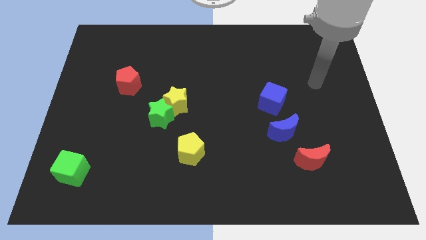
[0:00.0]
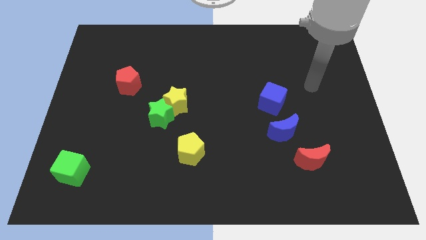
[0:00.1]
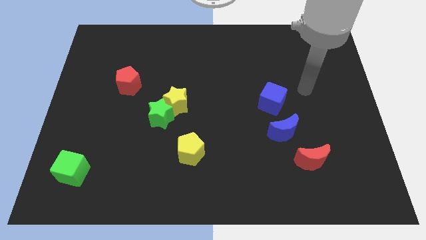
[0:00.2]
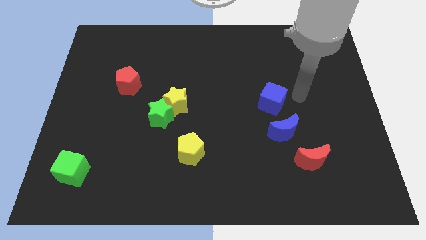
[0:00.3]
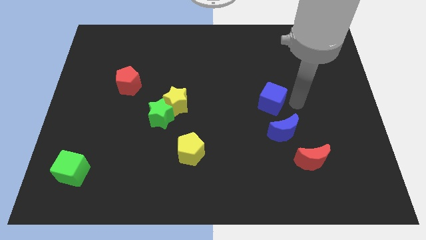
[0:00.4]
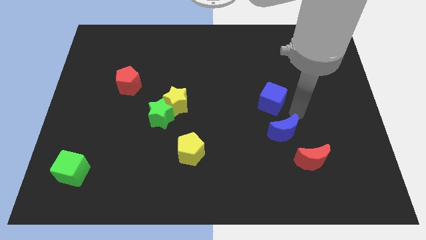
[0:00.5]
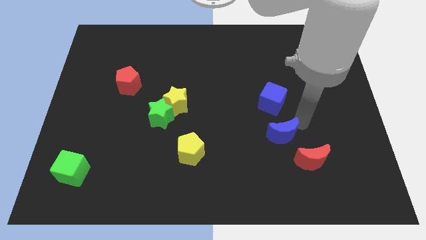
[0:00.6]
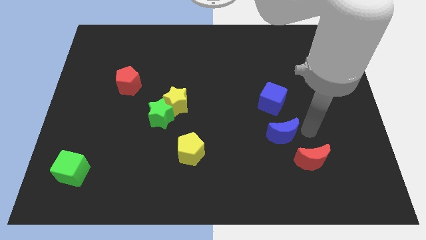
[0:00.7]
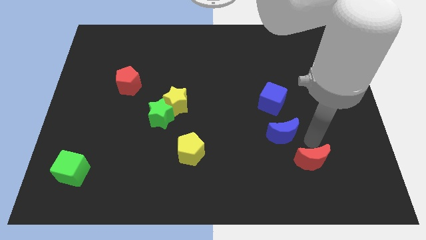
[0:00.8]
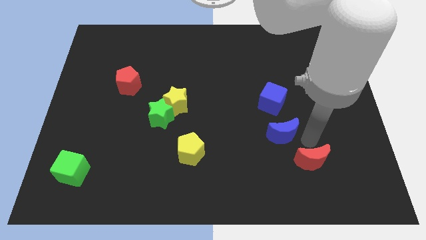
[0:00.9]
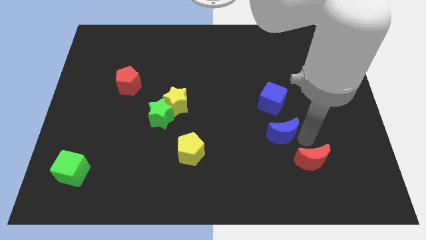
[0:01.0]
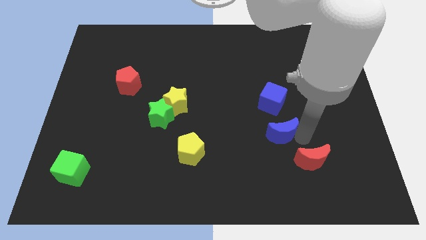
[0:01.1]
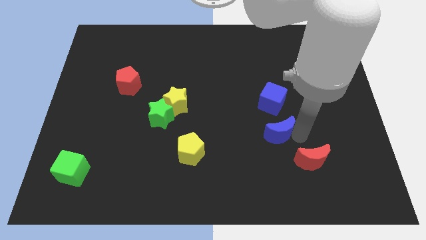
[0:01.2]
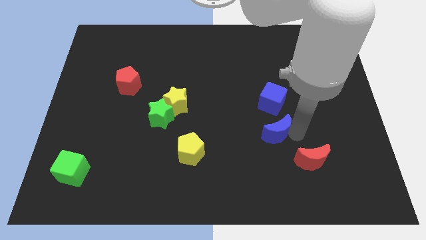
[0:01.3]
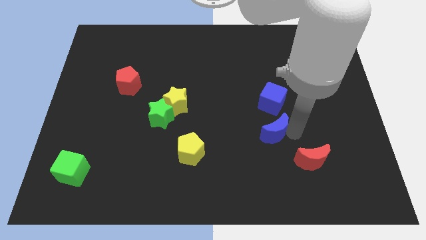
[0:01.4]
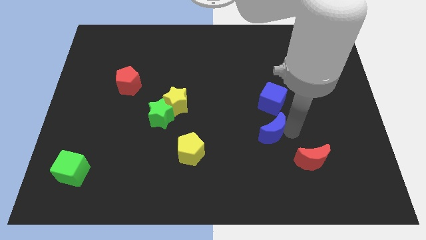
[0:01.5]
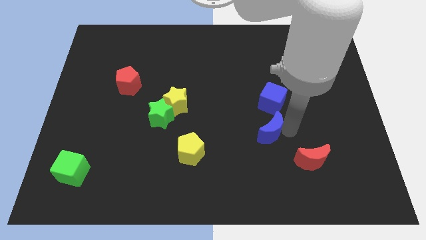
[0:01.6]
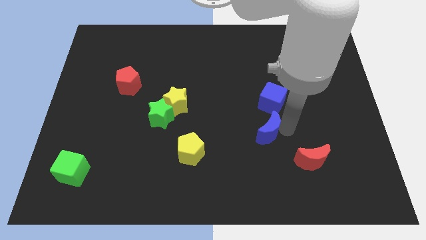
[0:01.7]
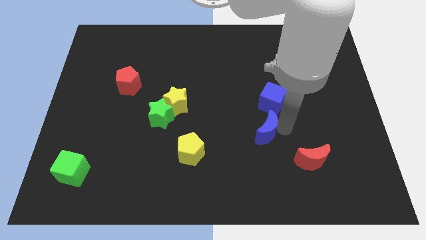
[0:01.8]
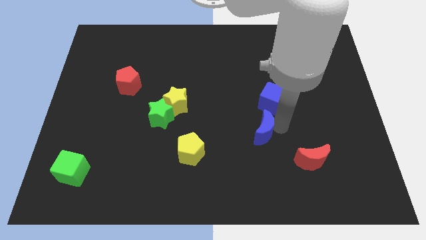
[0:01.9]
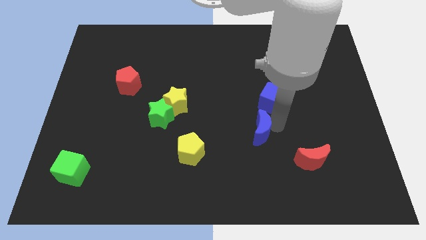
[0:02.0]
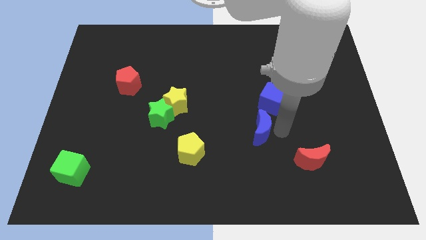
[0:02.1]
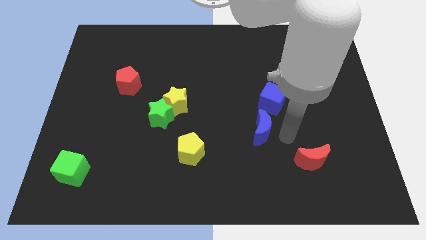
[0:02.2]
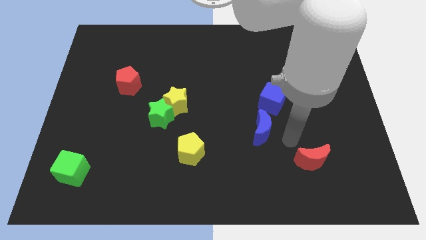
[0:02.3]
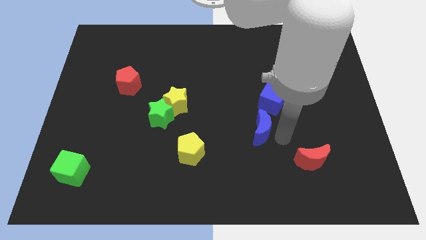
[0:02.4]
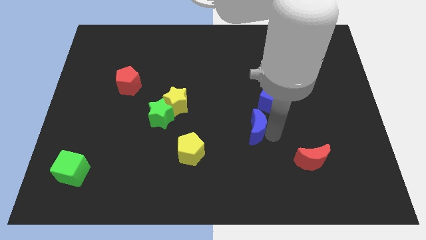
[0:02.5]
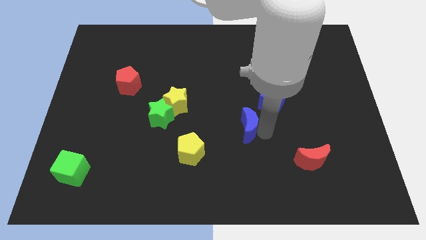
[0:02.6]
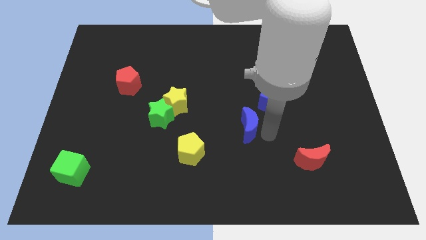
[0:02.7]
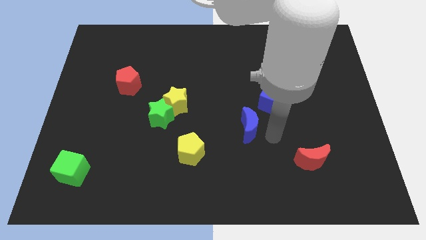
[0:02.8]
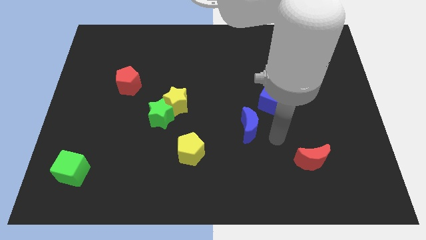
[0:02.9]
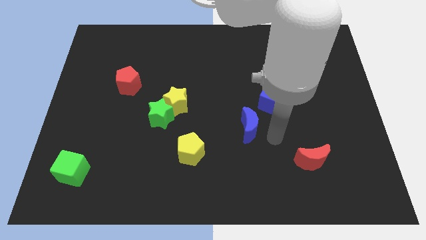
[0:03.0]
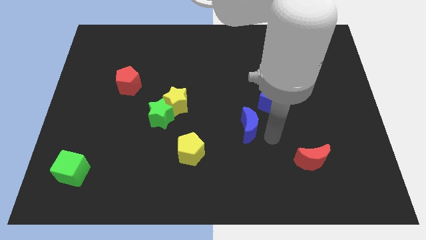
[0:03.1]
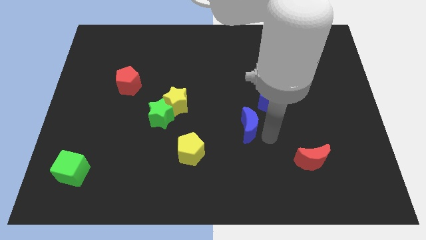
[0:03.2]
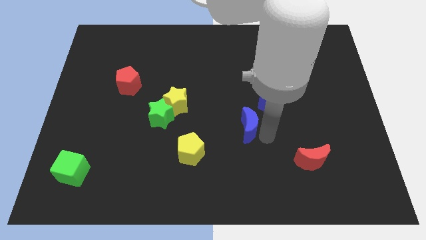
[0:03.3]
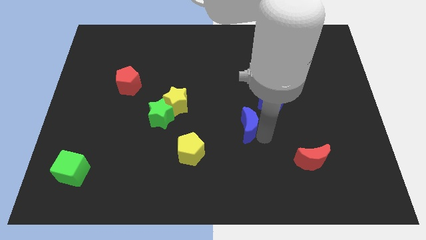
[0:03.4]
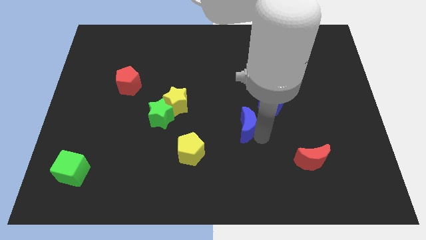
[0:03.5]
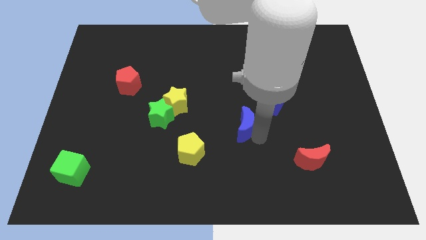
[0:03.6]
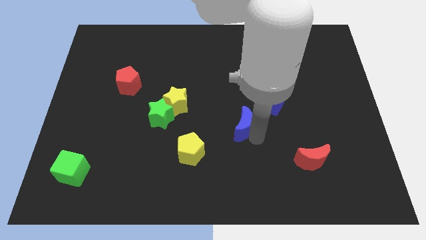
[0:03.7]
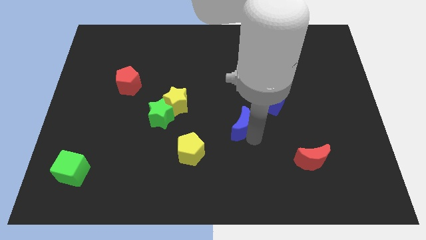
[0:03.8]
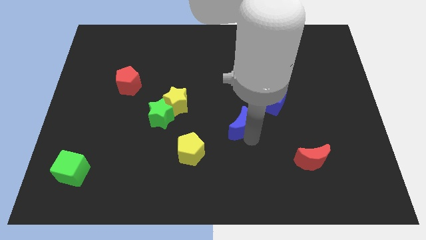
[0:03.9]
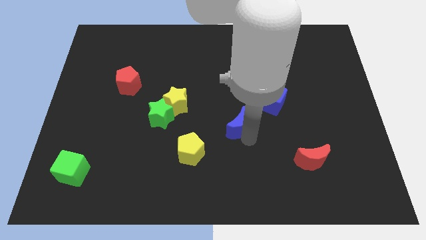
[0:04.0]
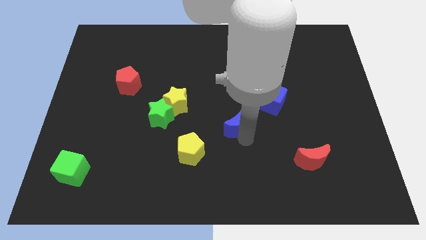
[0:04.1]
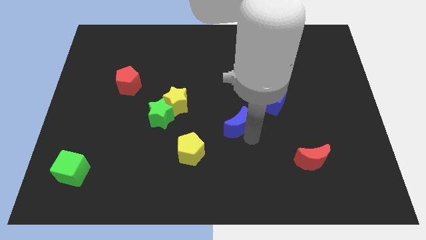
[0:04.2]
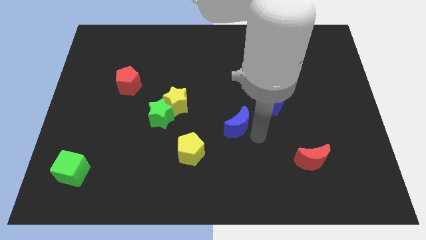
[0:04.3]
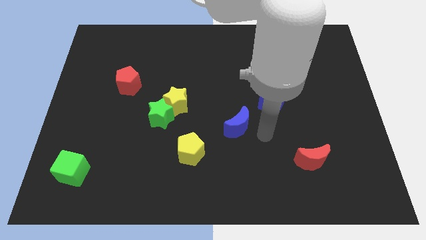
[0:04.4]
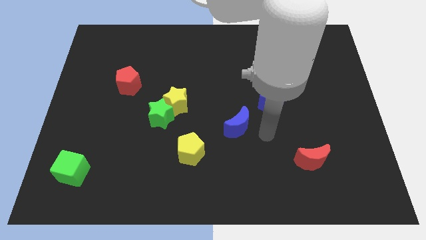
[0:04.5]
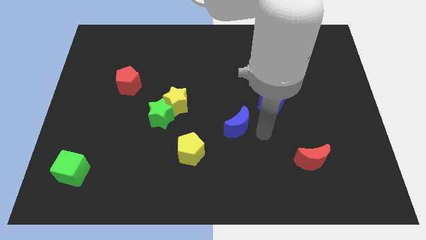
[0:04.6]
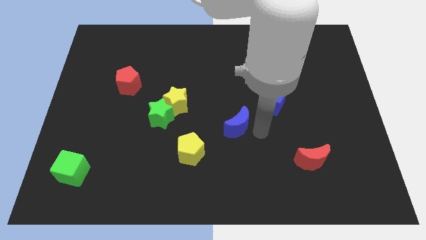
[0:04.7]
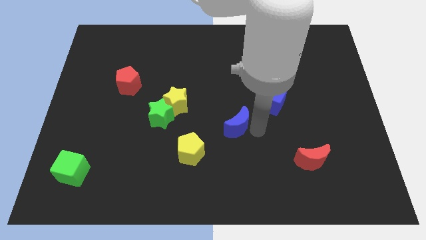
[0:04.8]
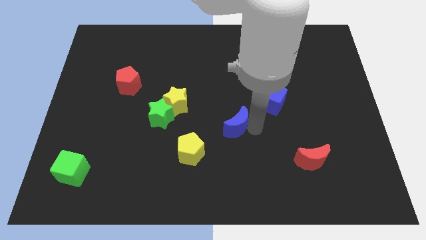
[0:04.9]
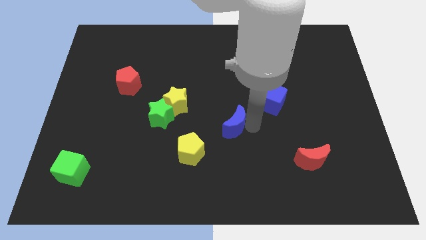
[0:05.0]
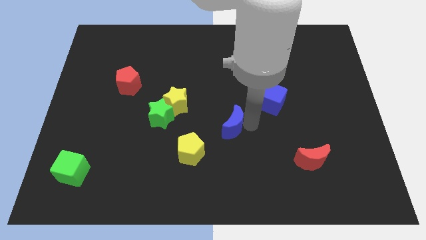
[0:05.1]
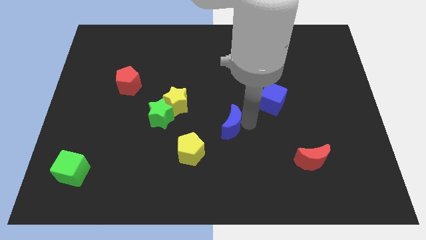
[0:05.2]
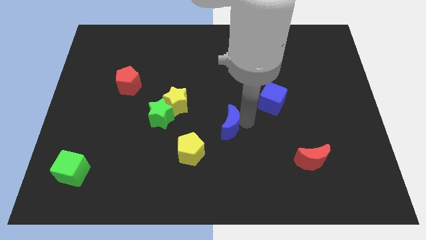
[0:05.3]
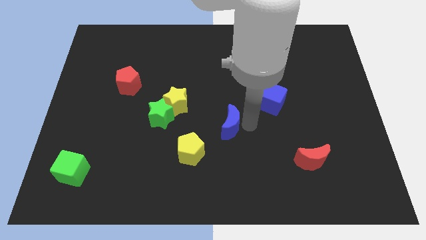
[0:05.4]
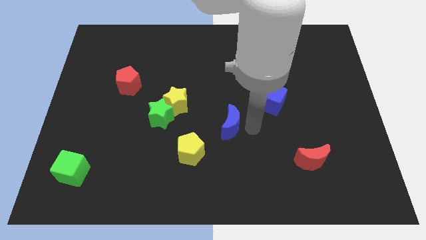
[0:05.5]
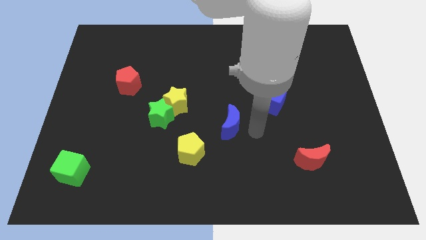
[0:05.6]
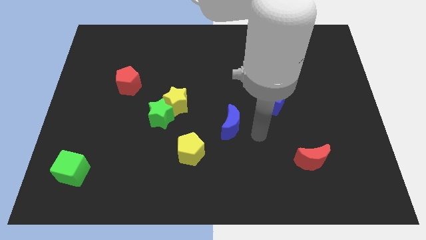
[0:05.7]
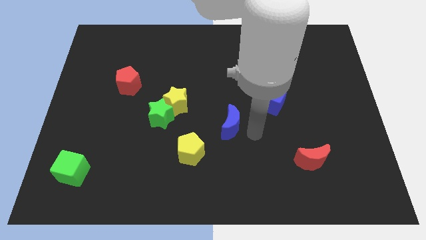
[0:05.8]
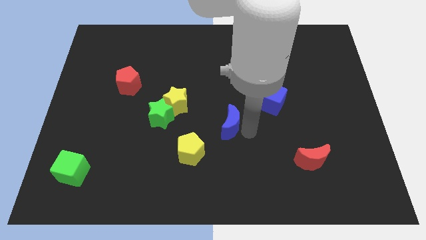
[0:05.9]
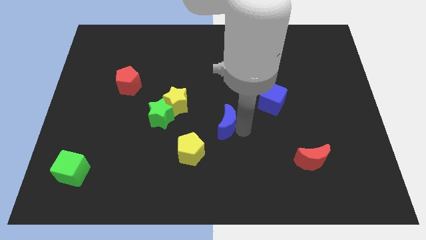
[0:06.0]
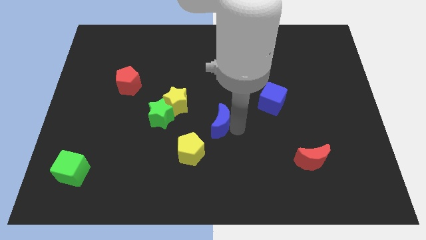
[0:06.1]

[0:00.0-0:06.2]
slide the blue moon to the bottom right of the yellow star

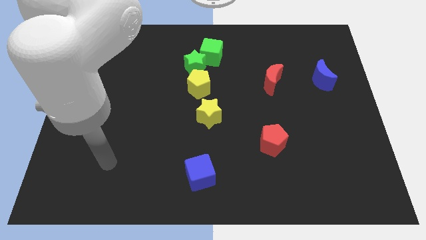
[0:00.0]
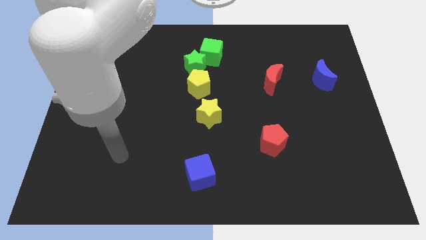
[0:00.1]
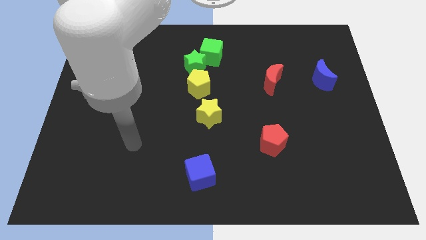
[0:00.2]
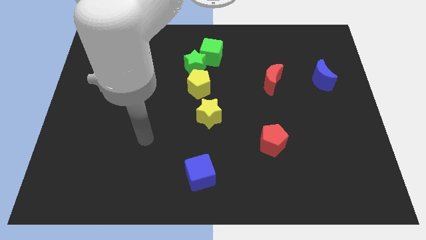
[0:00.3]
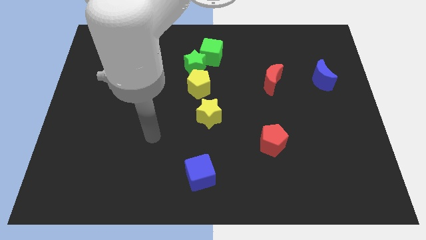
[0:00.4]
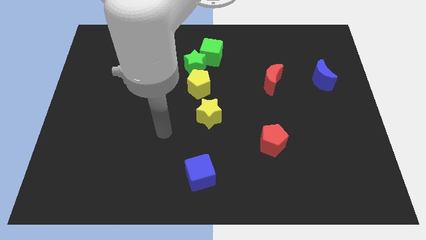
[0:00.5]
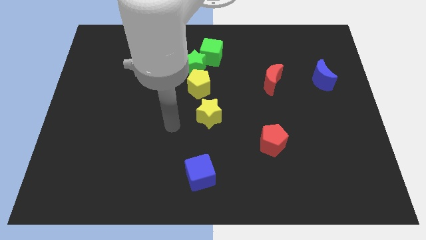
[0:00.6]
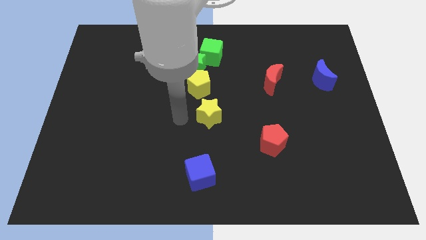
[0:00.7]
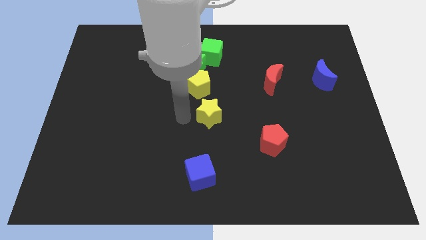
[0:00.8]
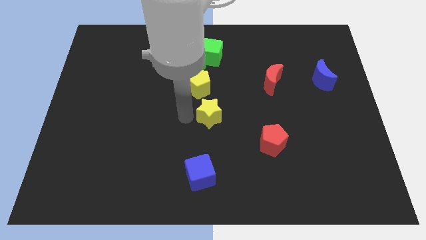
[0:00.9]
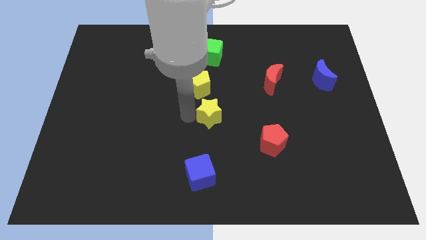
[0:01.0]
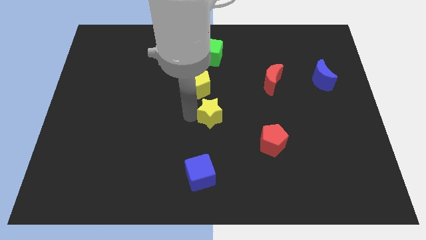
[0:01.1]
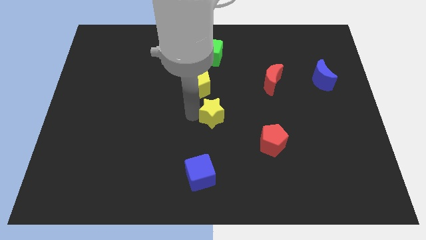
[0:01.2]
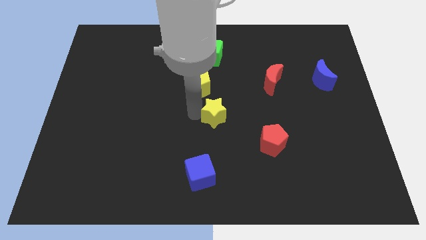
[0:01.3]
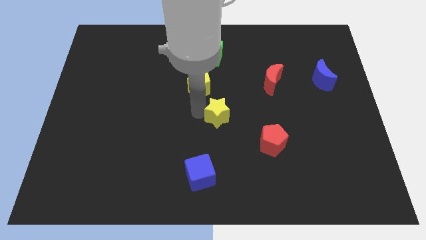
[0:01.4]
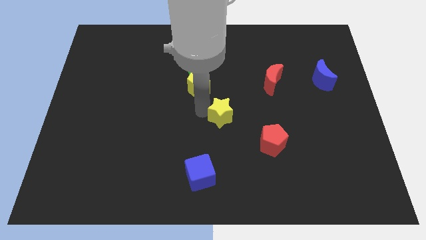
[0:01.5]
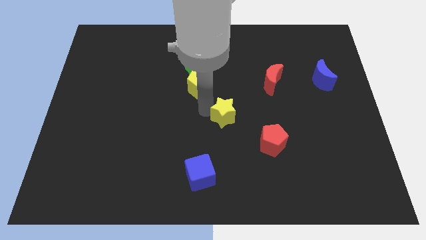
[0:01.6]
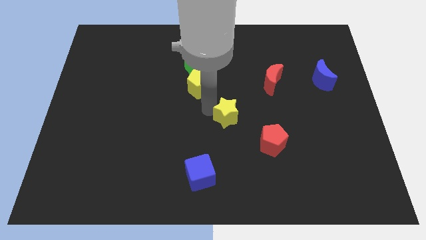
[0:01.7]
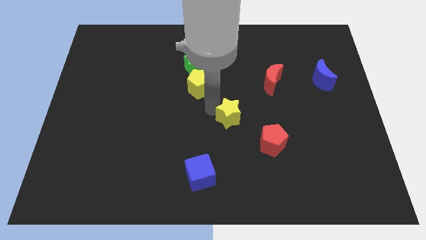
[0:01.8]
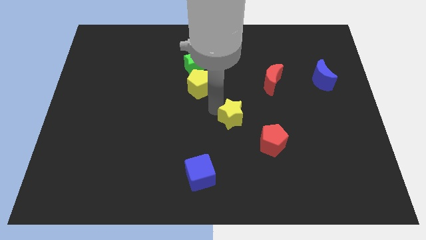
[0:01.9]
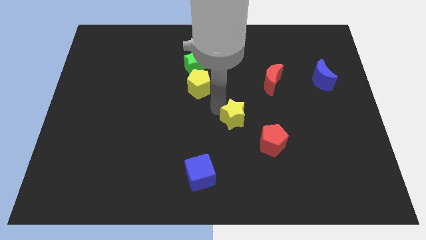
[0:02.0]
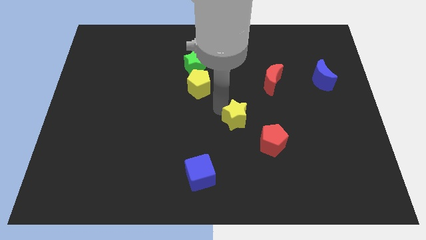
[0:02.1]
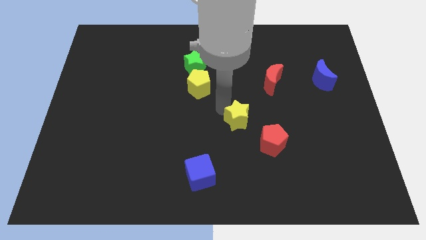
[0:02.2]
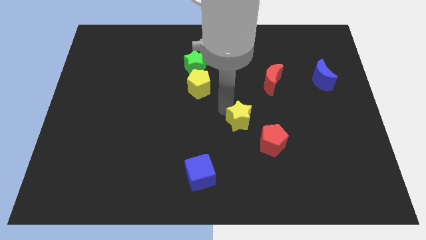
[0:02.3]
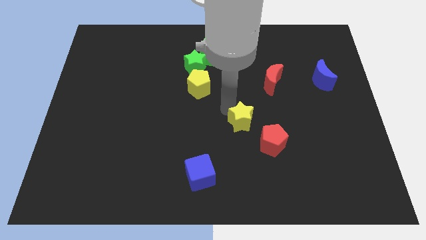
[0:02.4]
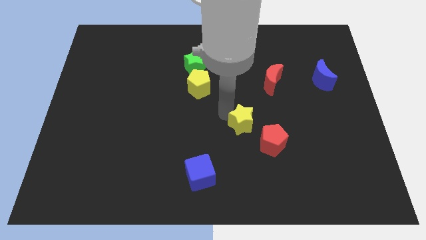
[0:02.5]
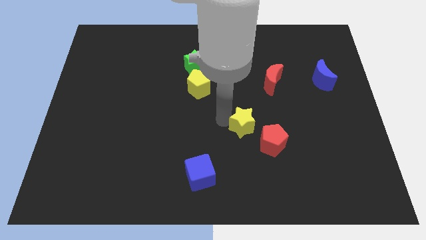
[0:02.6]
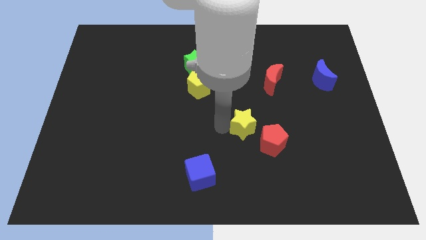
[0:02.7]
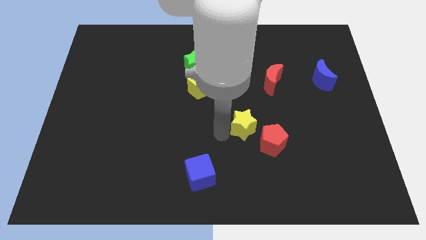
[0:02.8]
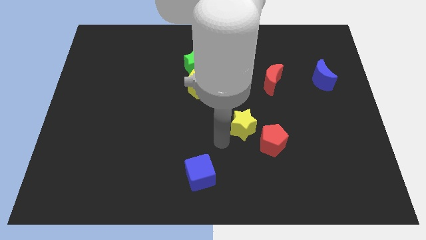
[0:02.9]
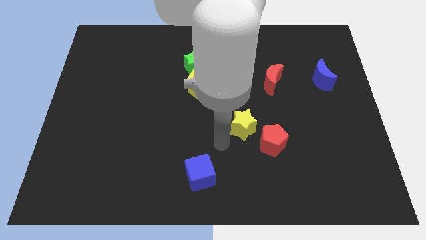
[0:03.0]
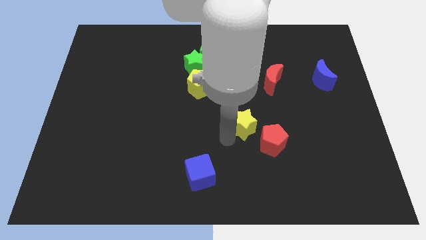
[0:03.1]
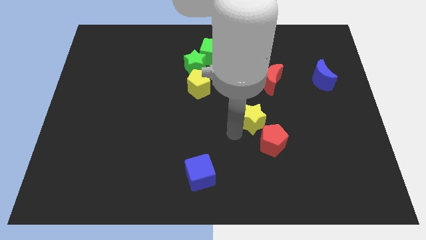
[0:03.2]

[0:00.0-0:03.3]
move the yellow star above the red pentagon
